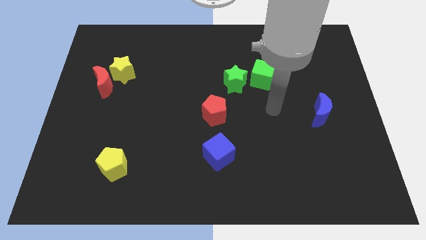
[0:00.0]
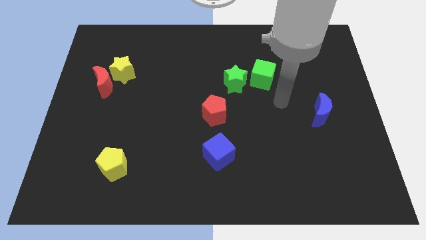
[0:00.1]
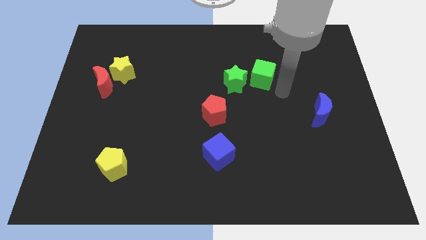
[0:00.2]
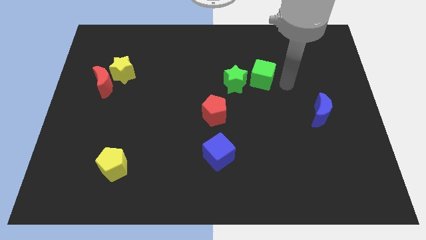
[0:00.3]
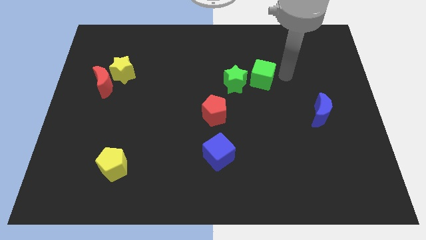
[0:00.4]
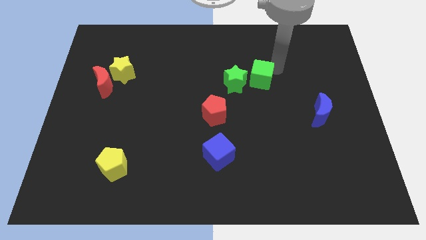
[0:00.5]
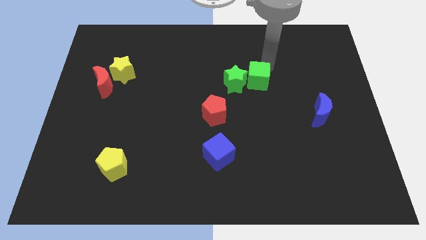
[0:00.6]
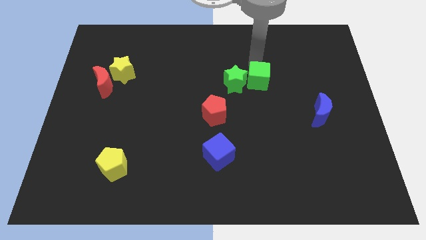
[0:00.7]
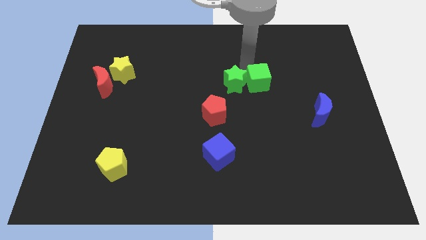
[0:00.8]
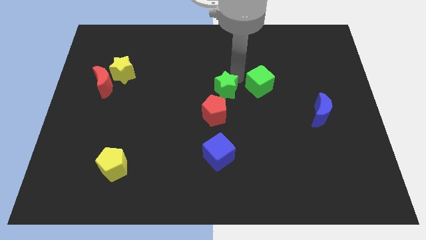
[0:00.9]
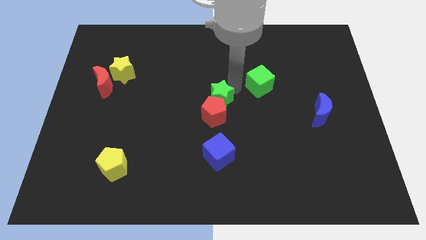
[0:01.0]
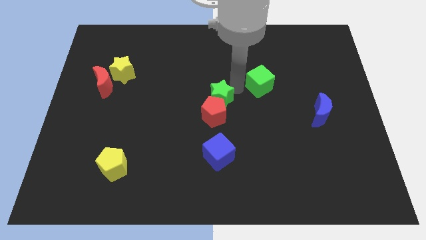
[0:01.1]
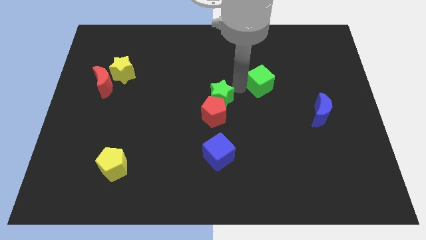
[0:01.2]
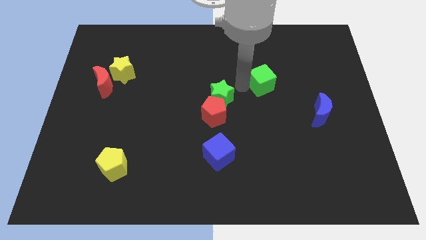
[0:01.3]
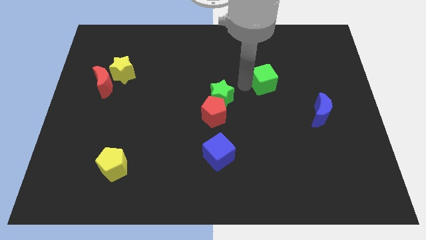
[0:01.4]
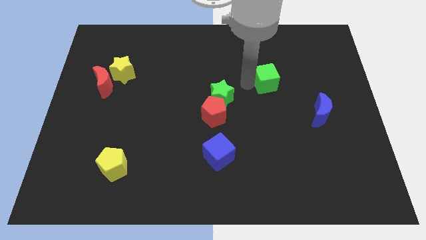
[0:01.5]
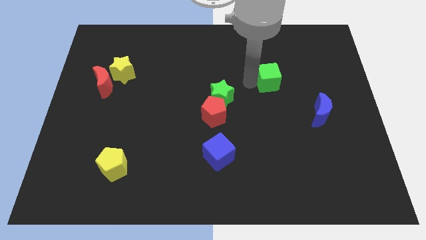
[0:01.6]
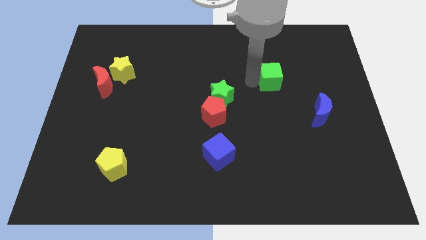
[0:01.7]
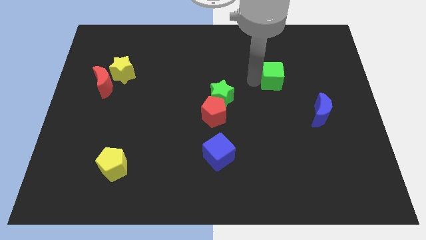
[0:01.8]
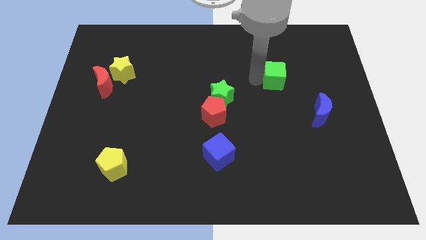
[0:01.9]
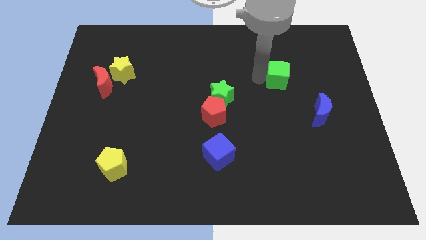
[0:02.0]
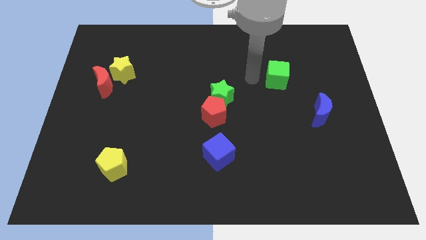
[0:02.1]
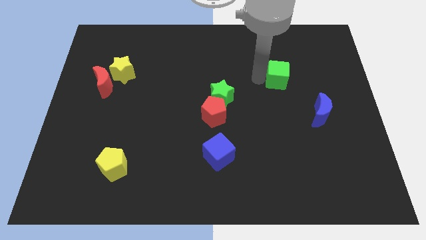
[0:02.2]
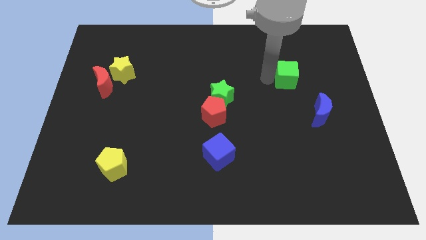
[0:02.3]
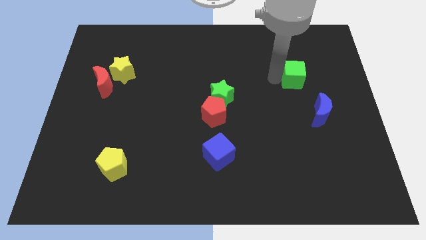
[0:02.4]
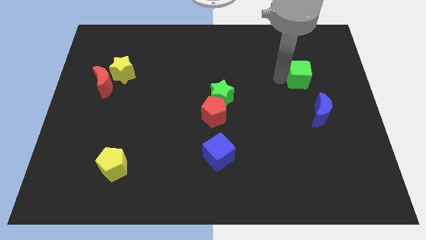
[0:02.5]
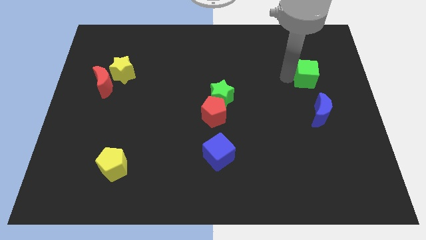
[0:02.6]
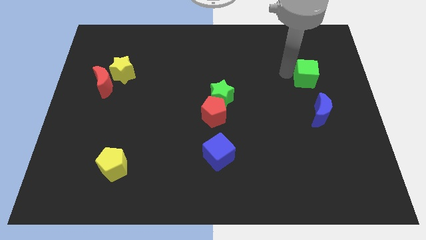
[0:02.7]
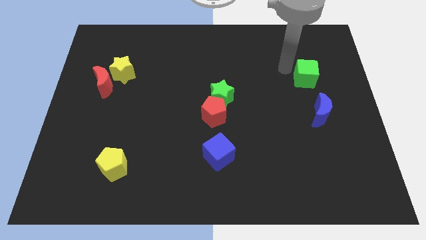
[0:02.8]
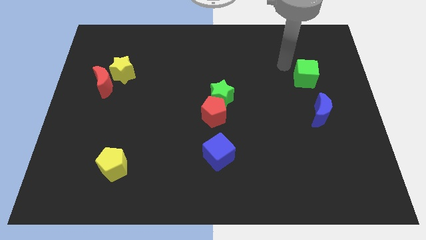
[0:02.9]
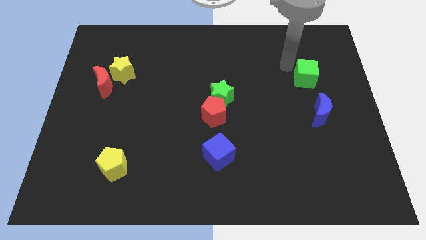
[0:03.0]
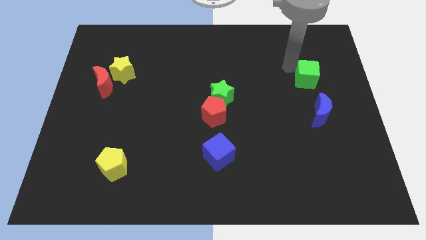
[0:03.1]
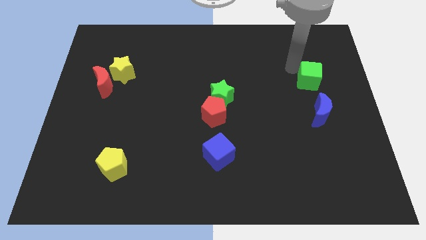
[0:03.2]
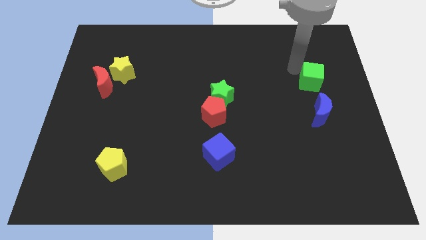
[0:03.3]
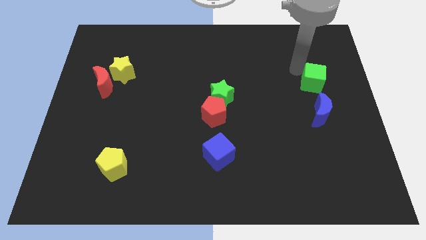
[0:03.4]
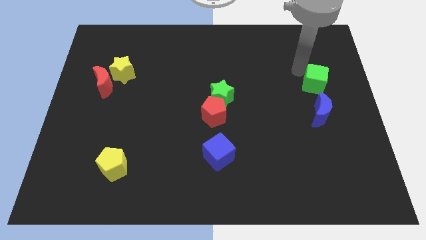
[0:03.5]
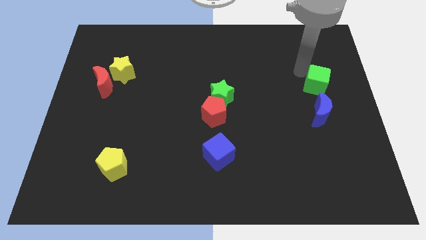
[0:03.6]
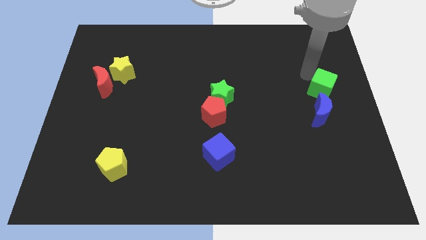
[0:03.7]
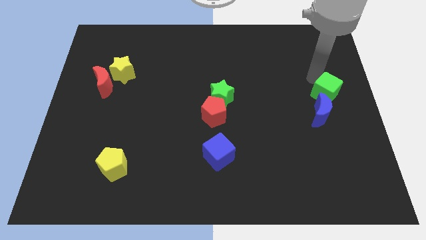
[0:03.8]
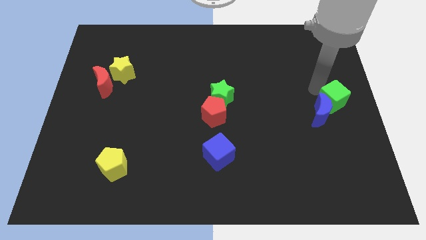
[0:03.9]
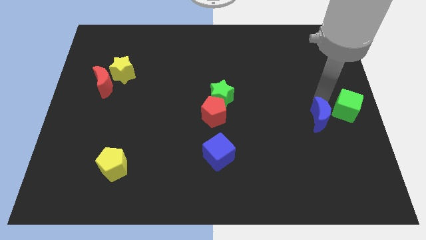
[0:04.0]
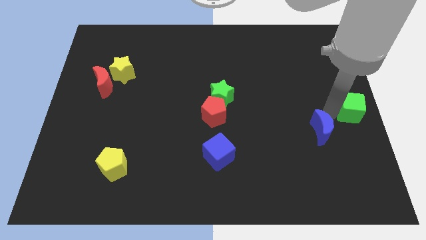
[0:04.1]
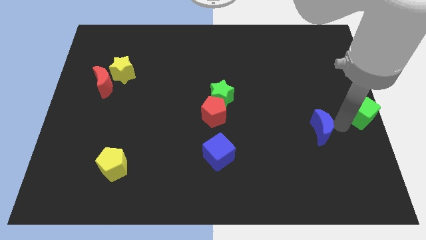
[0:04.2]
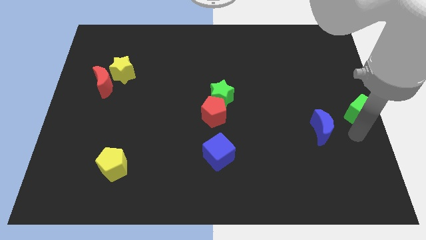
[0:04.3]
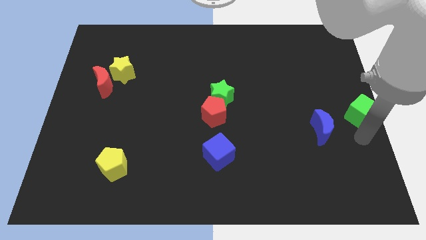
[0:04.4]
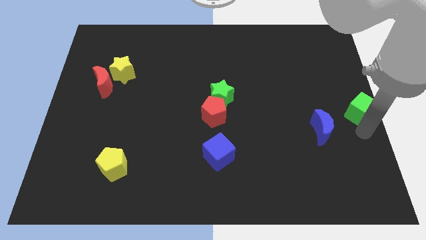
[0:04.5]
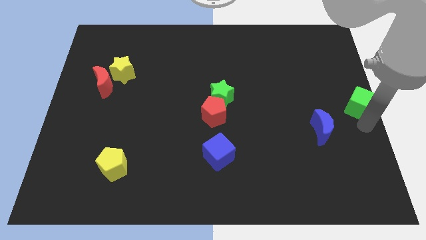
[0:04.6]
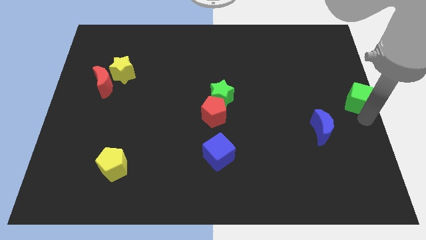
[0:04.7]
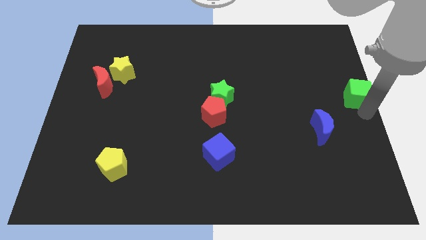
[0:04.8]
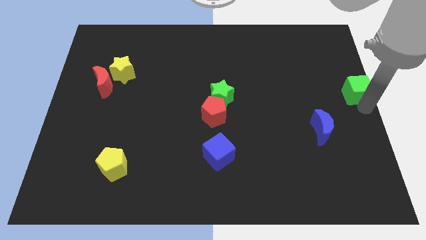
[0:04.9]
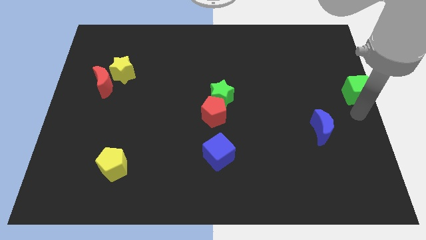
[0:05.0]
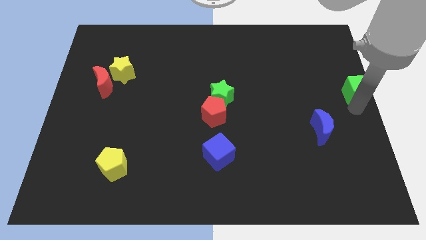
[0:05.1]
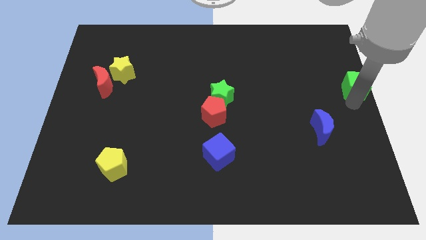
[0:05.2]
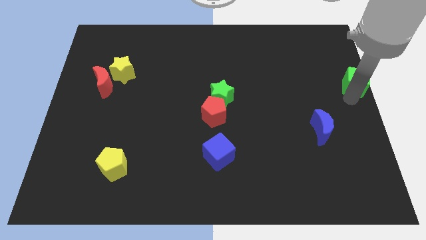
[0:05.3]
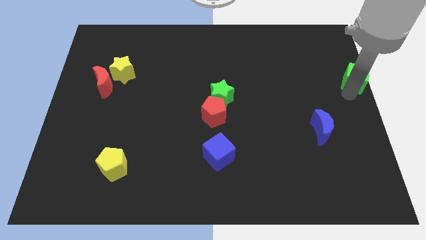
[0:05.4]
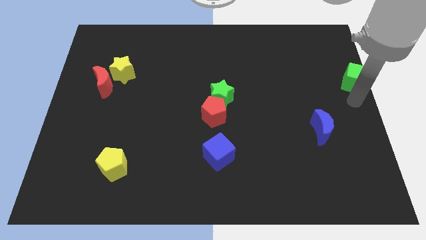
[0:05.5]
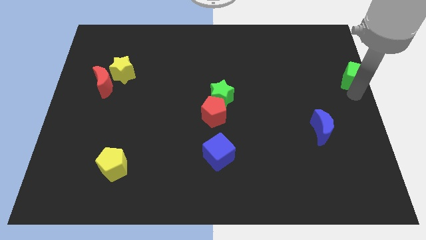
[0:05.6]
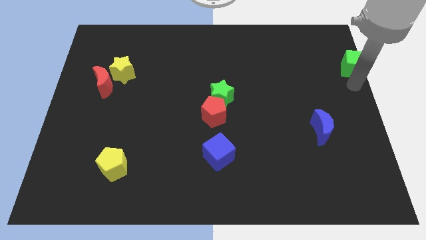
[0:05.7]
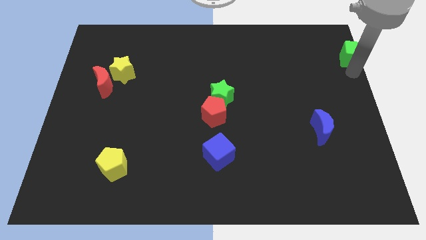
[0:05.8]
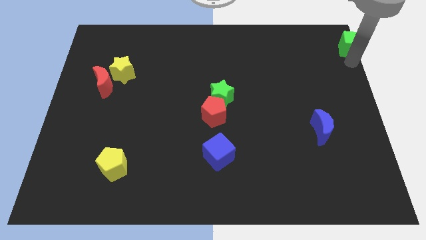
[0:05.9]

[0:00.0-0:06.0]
put the green cube to the upper right corner

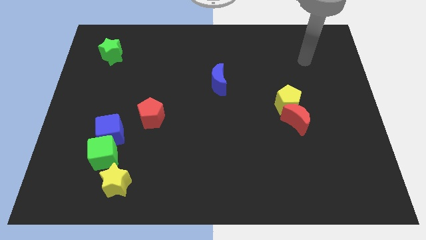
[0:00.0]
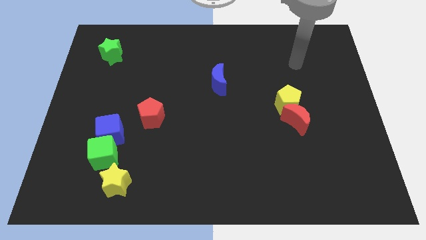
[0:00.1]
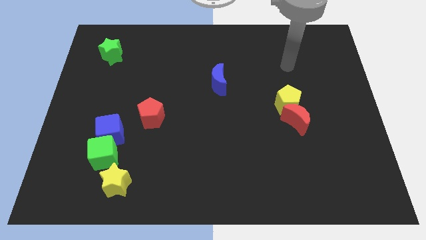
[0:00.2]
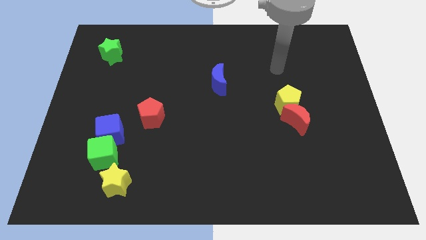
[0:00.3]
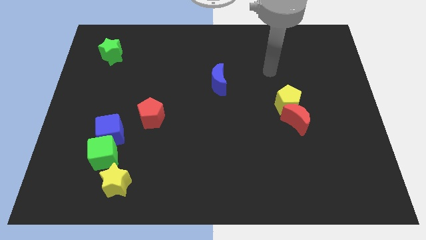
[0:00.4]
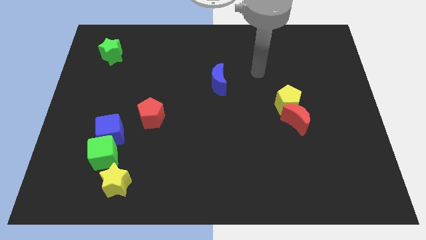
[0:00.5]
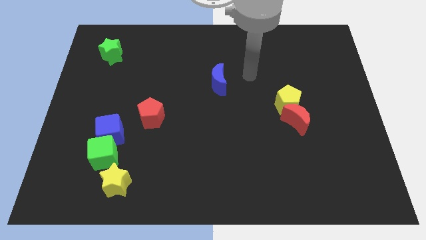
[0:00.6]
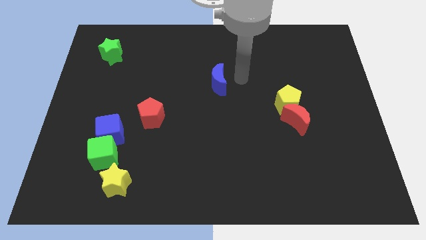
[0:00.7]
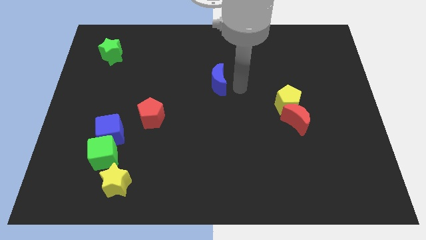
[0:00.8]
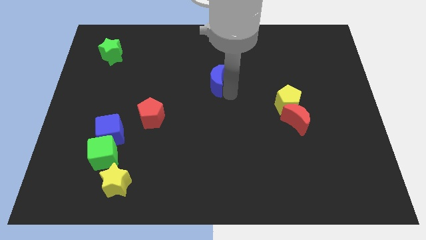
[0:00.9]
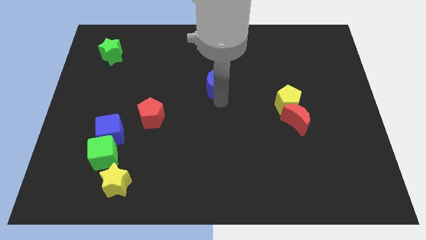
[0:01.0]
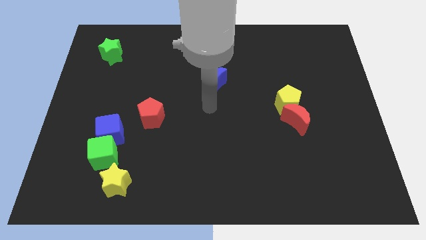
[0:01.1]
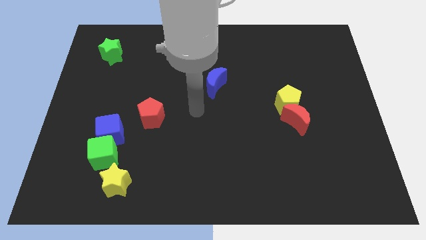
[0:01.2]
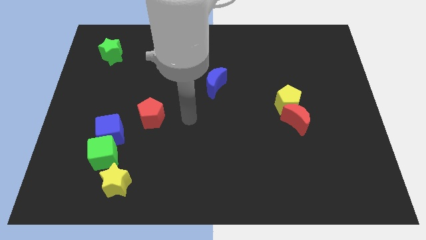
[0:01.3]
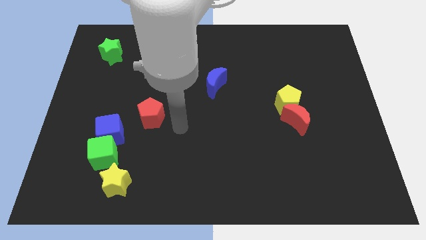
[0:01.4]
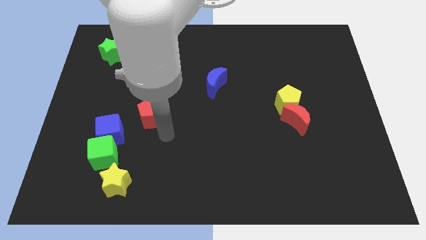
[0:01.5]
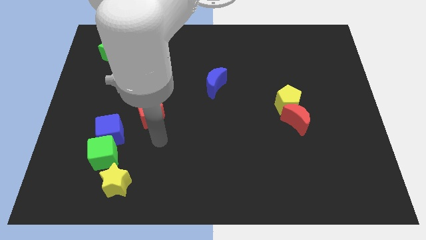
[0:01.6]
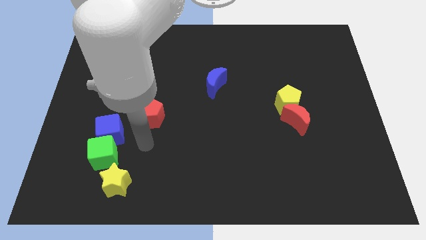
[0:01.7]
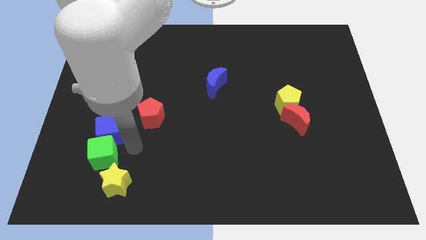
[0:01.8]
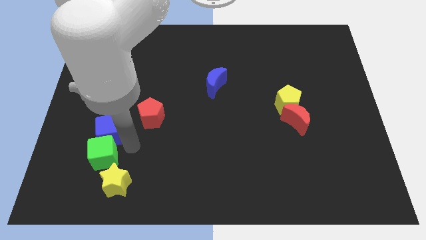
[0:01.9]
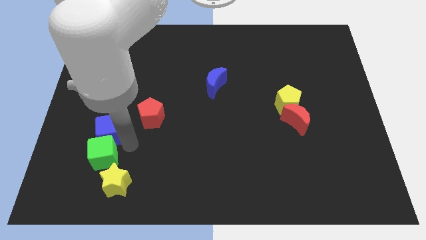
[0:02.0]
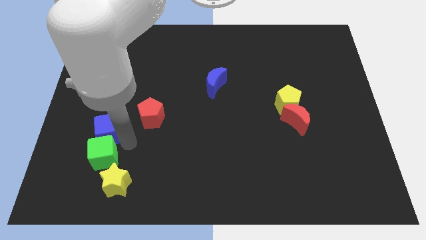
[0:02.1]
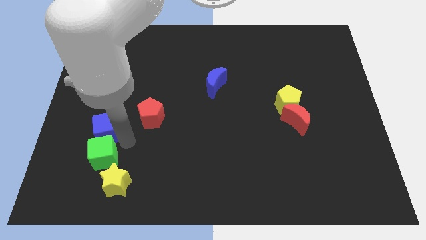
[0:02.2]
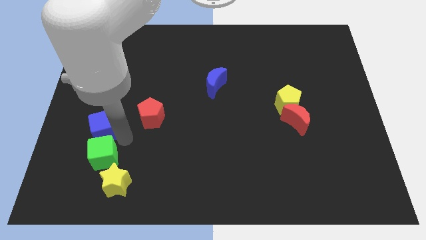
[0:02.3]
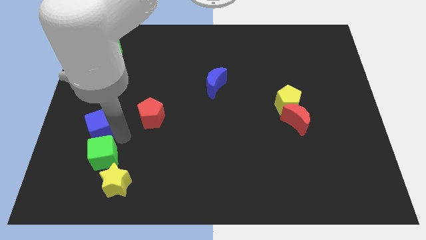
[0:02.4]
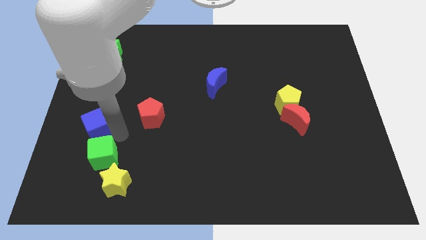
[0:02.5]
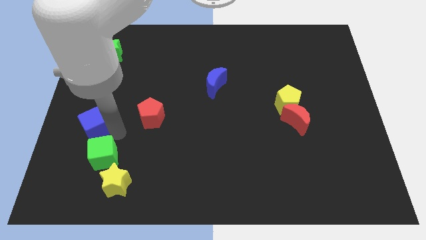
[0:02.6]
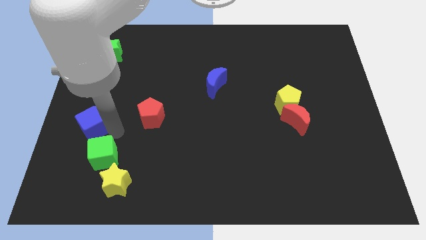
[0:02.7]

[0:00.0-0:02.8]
slide the blue cube to the left side
